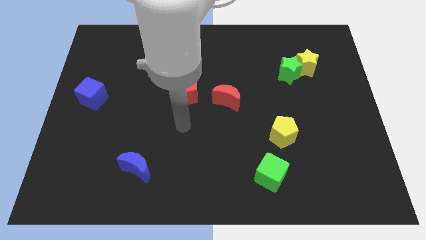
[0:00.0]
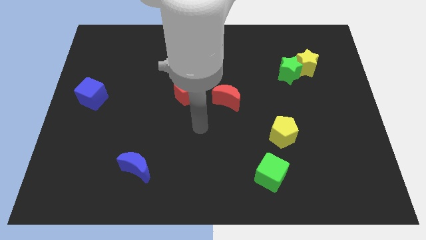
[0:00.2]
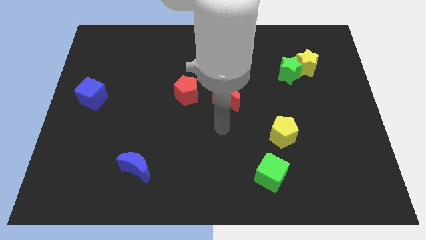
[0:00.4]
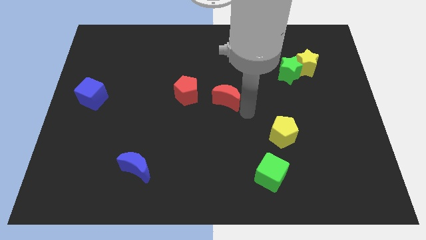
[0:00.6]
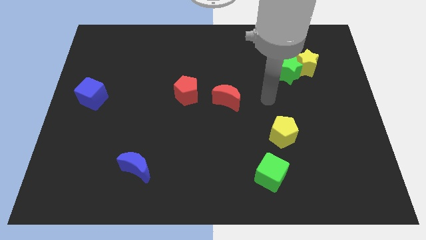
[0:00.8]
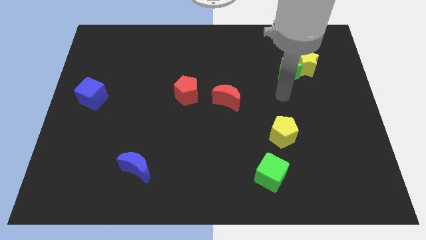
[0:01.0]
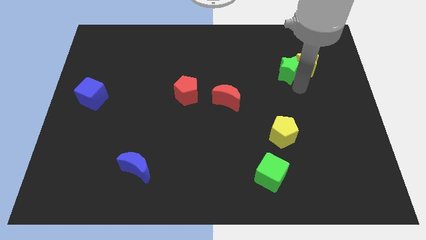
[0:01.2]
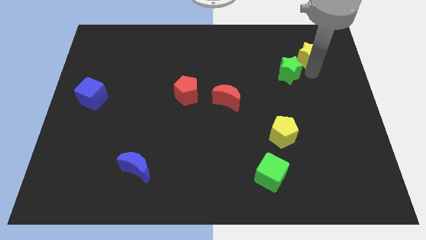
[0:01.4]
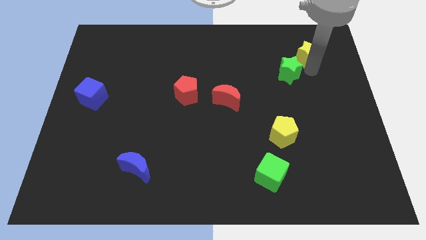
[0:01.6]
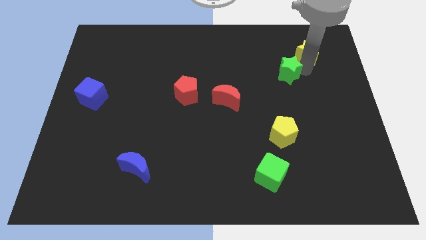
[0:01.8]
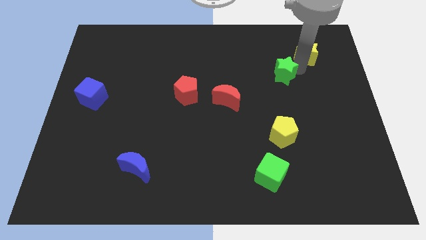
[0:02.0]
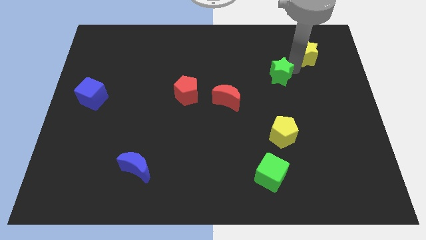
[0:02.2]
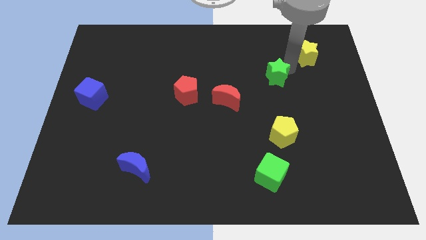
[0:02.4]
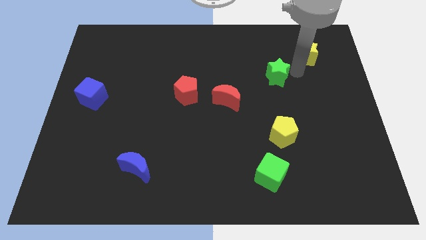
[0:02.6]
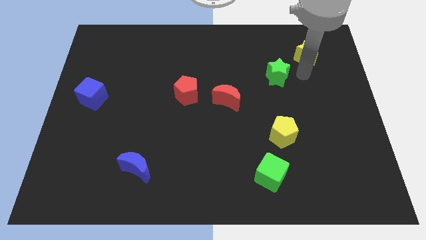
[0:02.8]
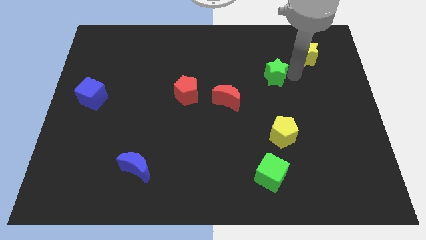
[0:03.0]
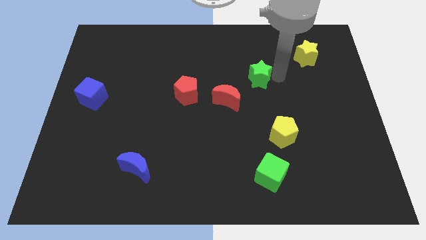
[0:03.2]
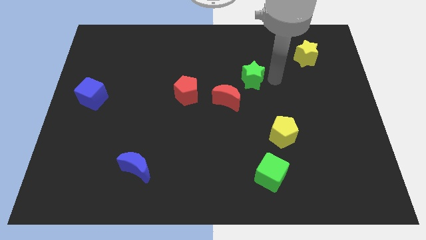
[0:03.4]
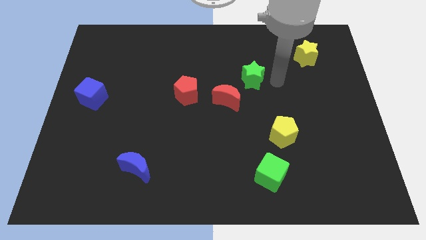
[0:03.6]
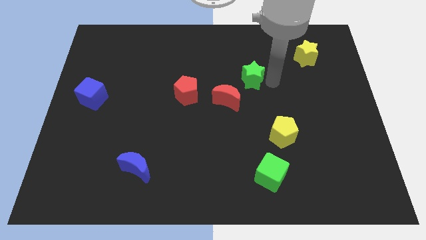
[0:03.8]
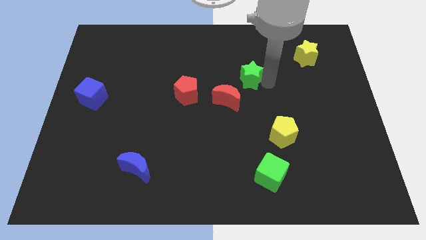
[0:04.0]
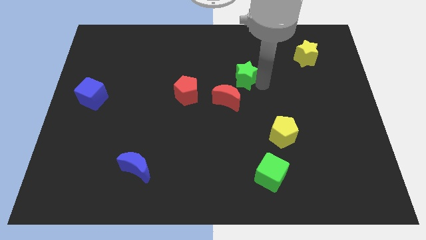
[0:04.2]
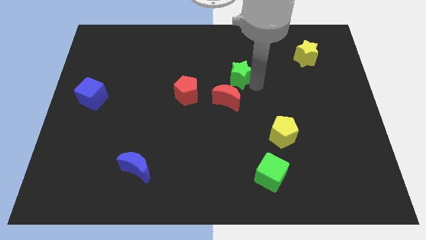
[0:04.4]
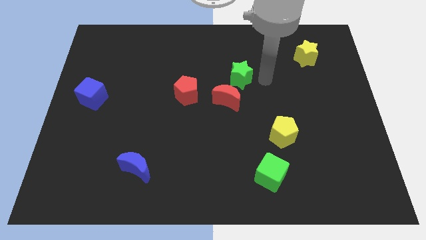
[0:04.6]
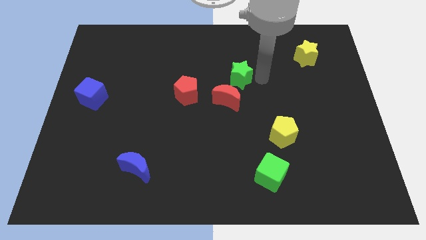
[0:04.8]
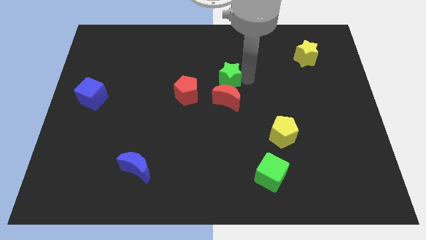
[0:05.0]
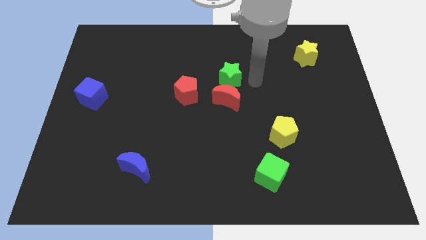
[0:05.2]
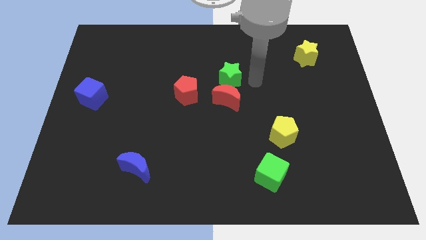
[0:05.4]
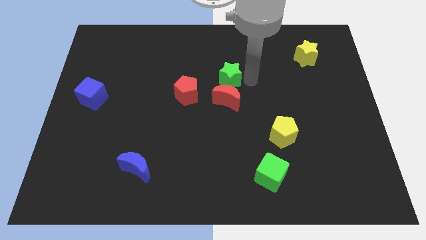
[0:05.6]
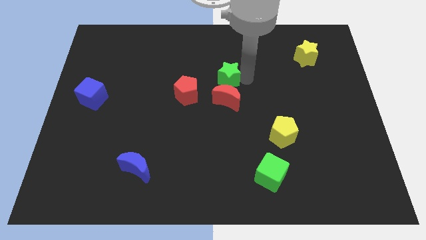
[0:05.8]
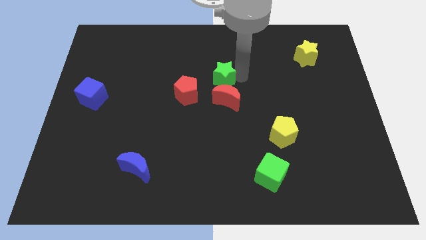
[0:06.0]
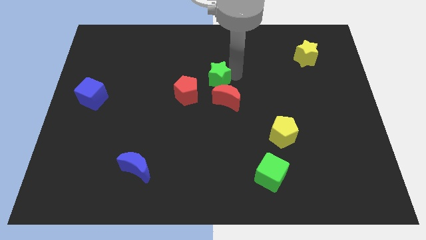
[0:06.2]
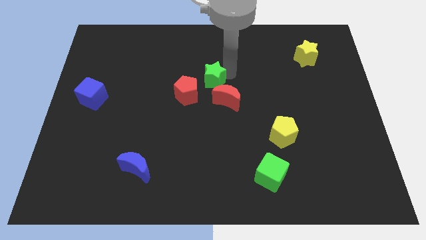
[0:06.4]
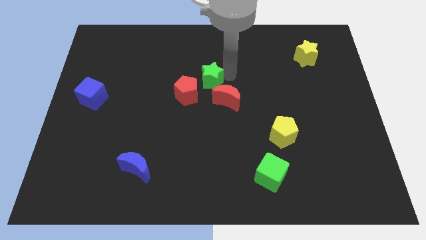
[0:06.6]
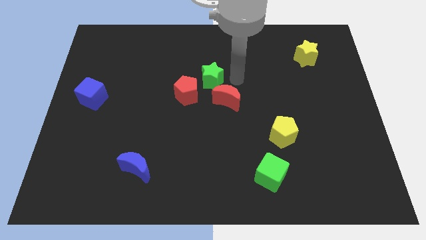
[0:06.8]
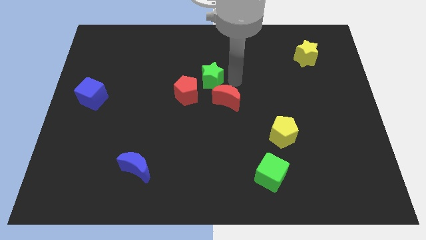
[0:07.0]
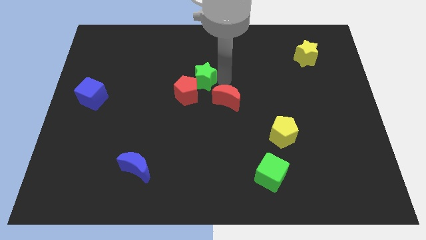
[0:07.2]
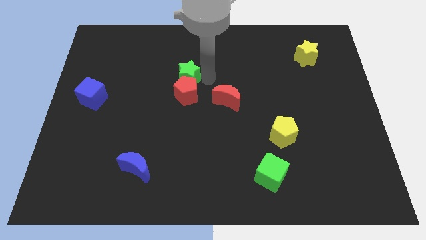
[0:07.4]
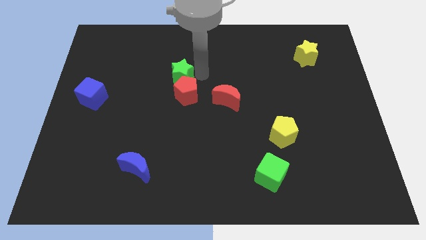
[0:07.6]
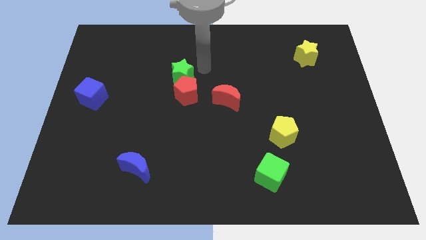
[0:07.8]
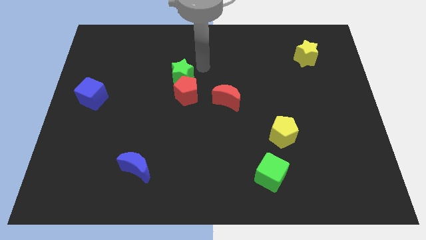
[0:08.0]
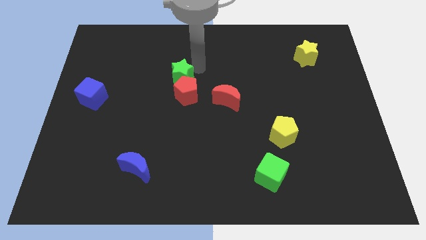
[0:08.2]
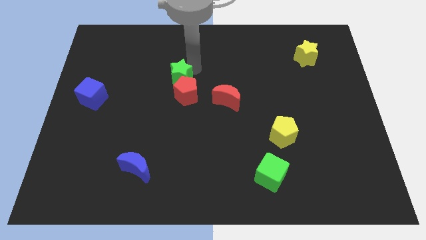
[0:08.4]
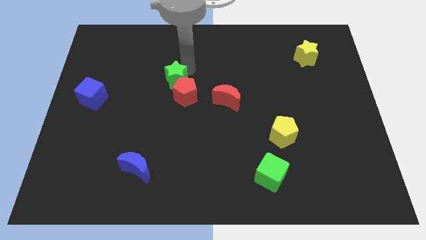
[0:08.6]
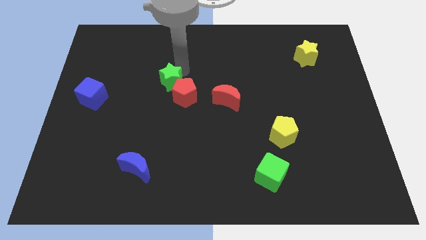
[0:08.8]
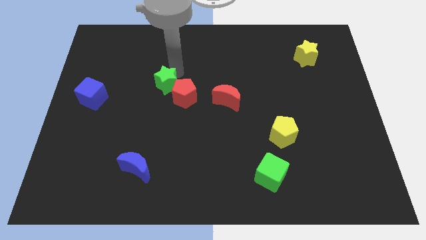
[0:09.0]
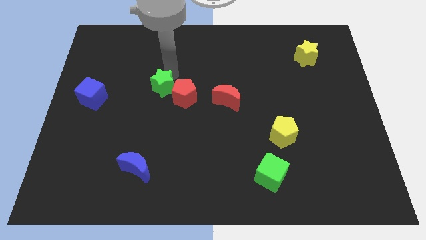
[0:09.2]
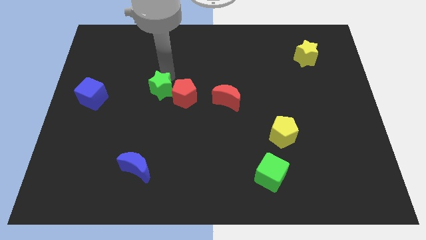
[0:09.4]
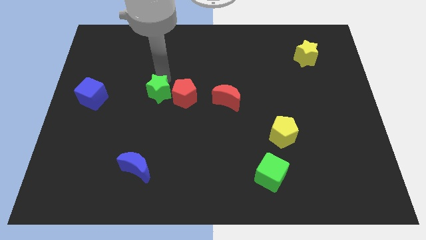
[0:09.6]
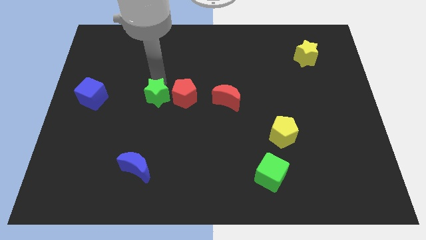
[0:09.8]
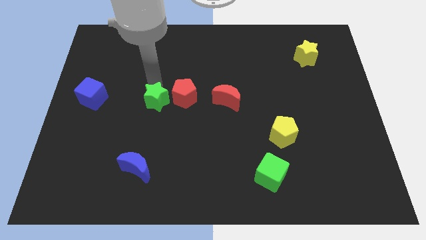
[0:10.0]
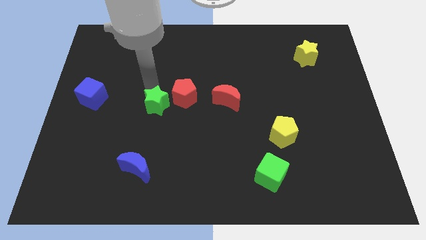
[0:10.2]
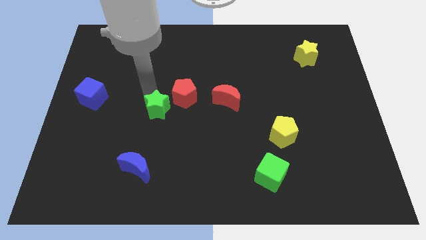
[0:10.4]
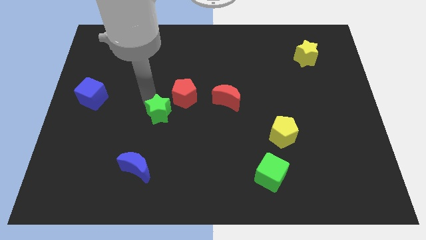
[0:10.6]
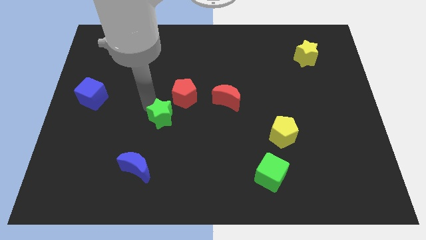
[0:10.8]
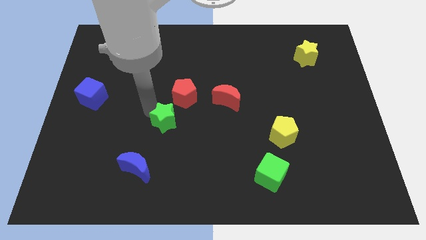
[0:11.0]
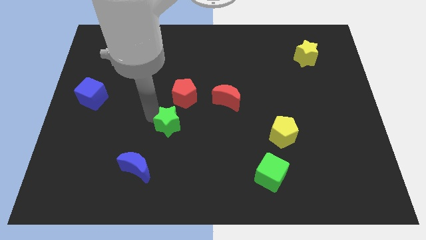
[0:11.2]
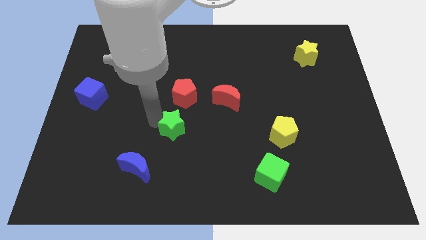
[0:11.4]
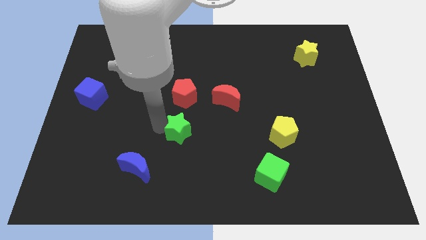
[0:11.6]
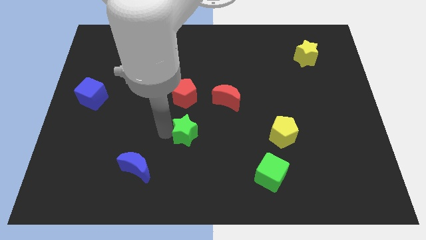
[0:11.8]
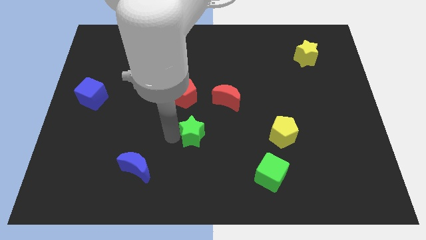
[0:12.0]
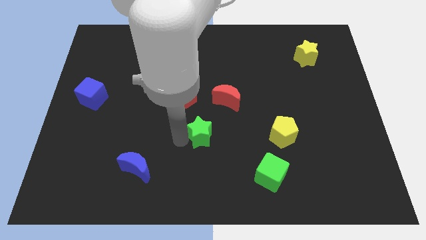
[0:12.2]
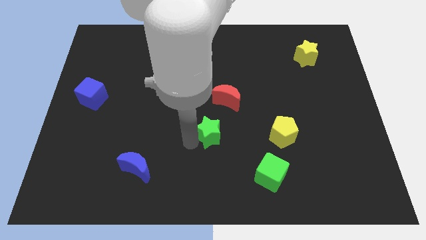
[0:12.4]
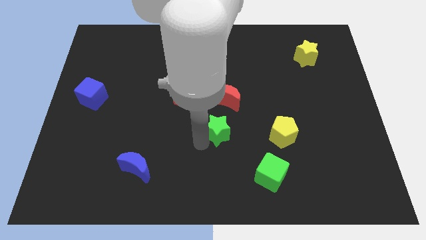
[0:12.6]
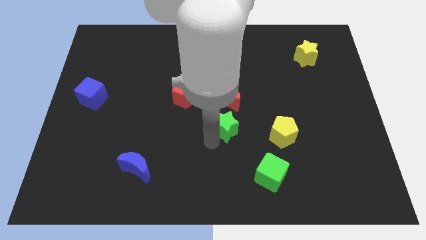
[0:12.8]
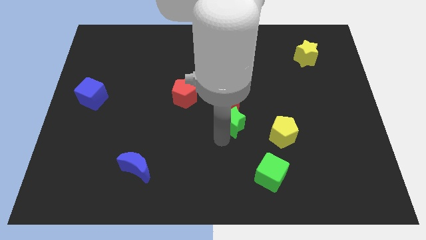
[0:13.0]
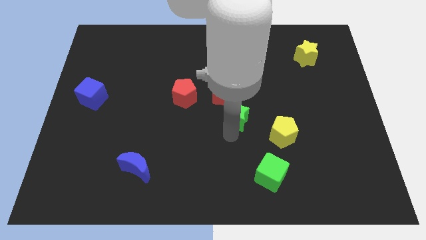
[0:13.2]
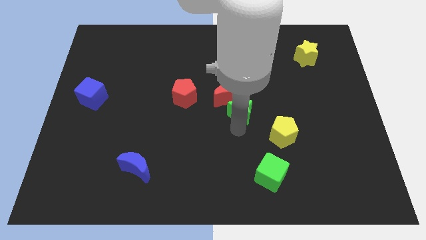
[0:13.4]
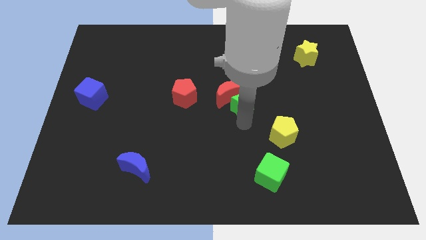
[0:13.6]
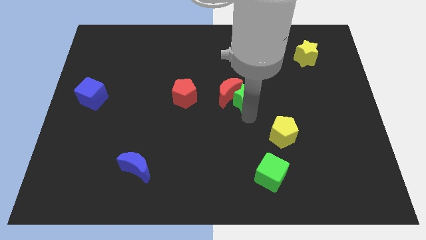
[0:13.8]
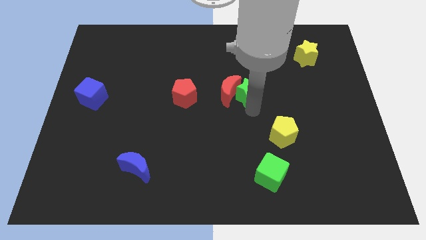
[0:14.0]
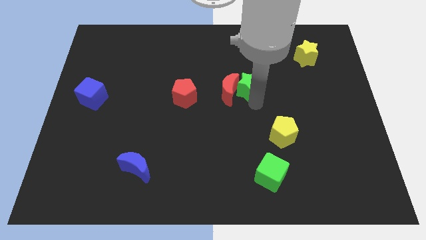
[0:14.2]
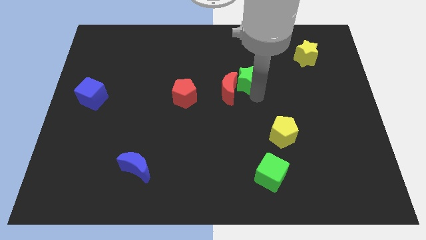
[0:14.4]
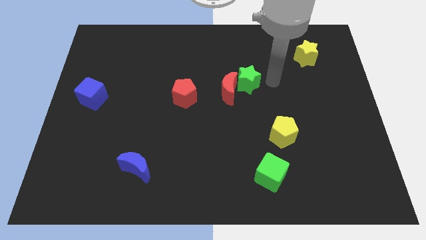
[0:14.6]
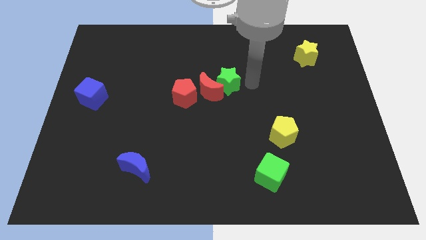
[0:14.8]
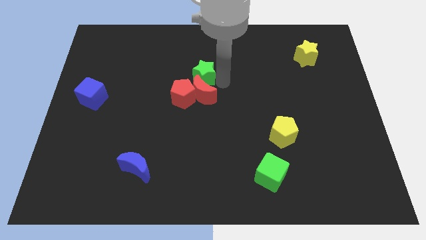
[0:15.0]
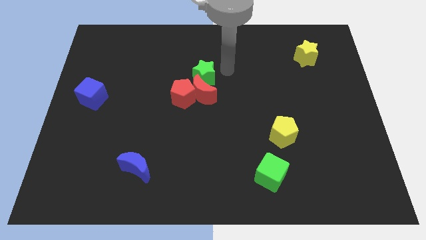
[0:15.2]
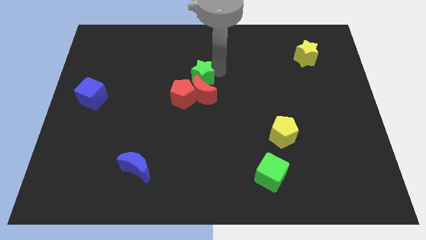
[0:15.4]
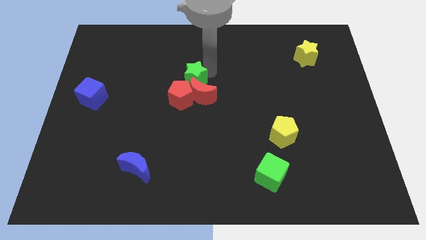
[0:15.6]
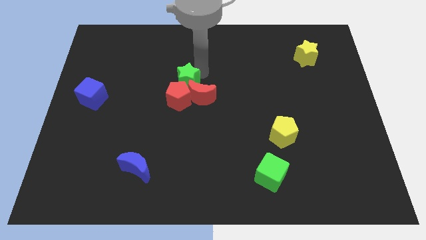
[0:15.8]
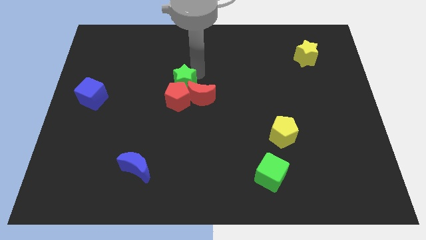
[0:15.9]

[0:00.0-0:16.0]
push the green star to the left side of the red moon
